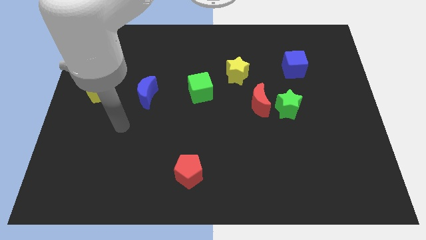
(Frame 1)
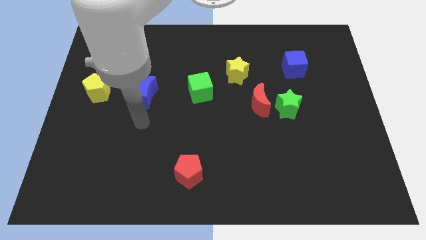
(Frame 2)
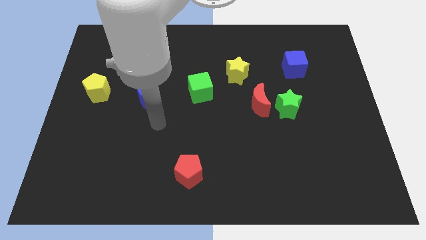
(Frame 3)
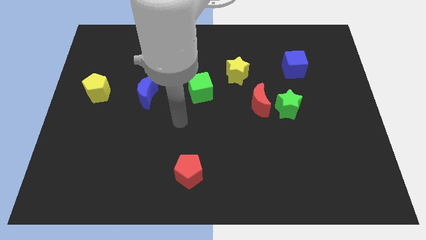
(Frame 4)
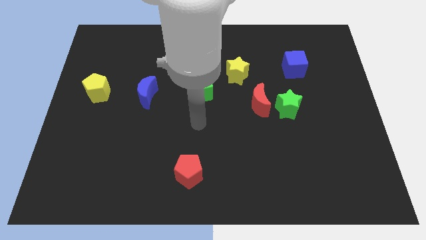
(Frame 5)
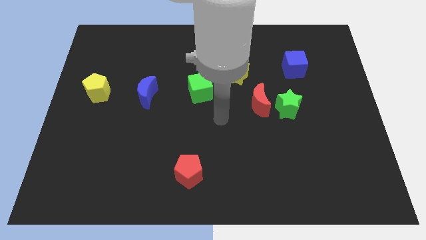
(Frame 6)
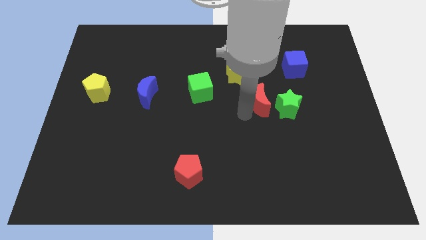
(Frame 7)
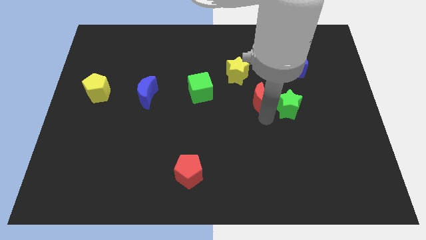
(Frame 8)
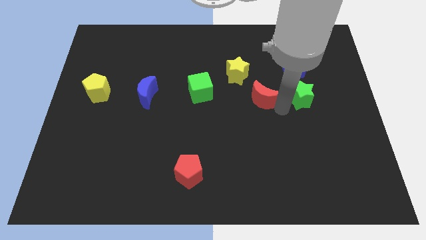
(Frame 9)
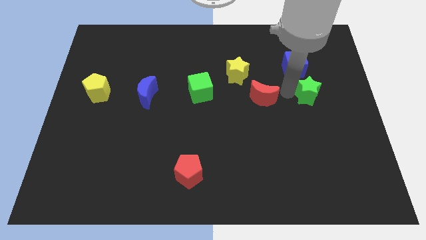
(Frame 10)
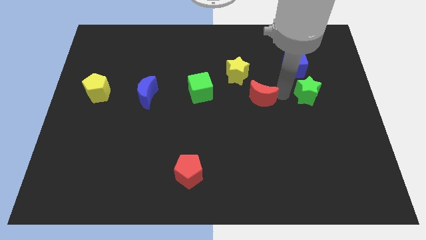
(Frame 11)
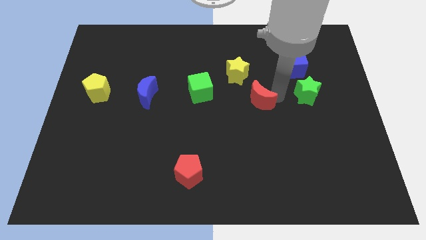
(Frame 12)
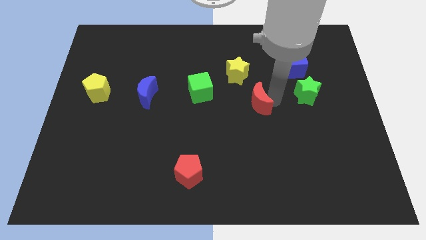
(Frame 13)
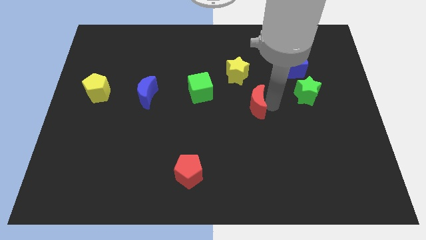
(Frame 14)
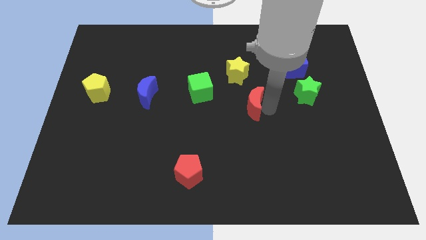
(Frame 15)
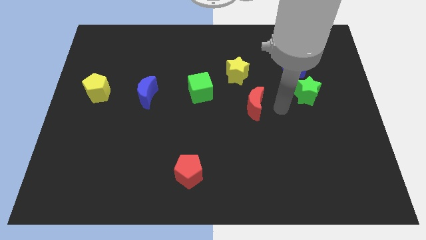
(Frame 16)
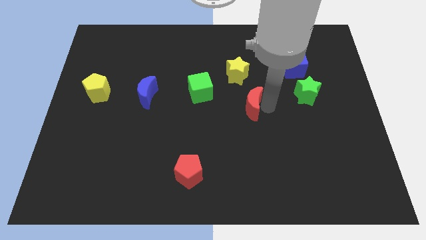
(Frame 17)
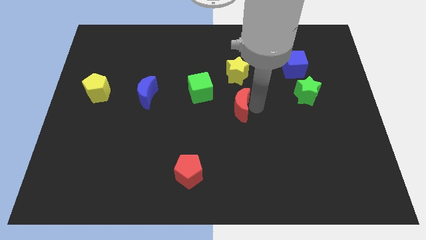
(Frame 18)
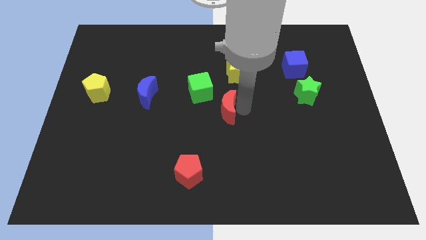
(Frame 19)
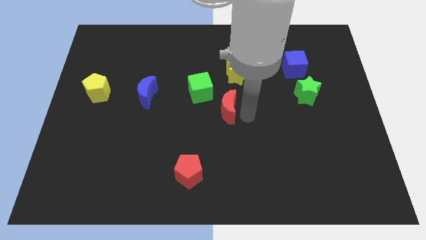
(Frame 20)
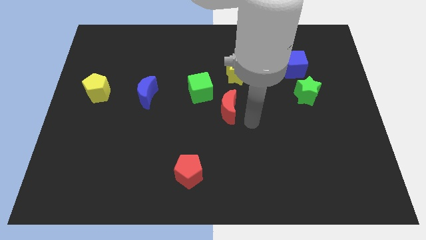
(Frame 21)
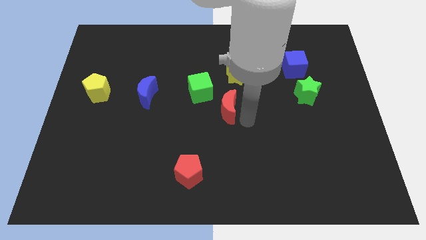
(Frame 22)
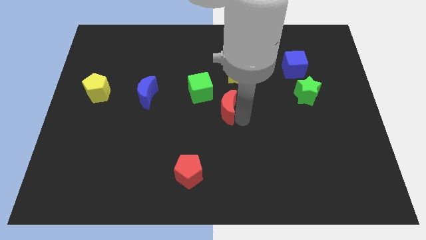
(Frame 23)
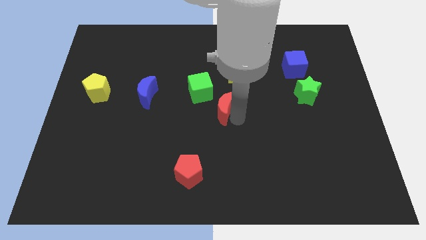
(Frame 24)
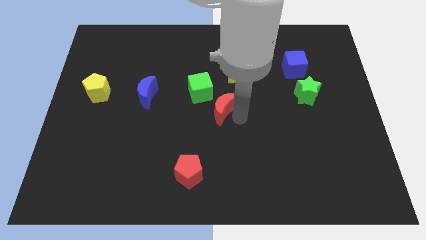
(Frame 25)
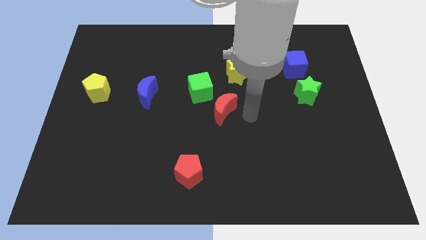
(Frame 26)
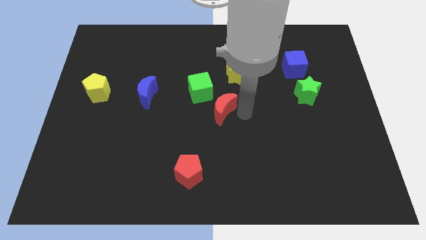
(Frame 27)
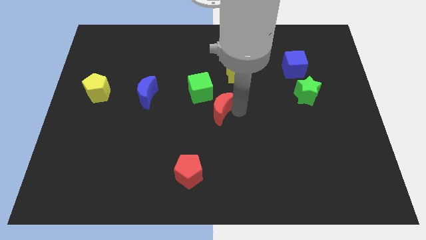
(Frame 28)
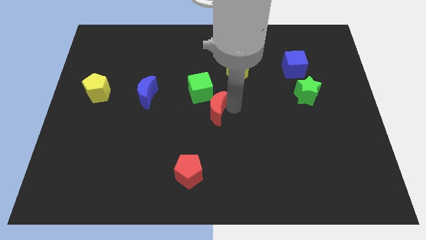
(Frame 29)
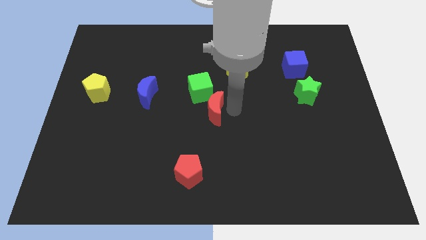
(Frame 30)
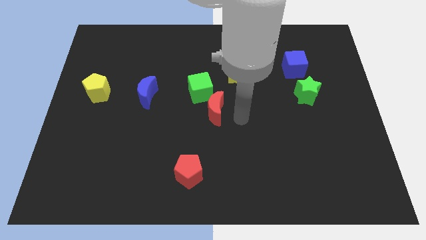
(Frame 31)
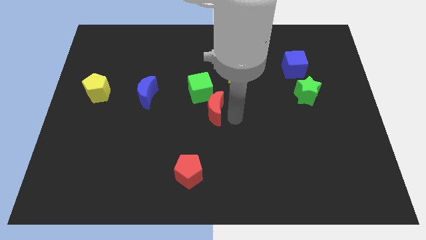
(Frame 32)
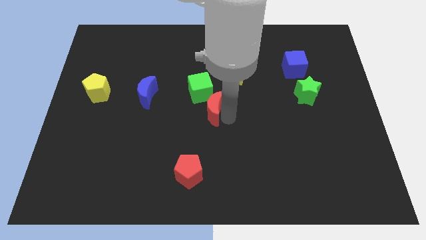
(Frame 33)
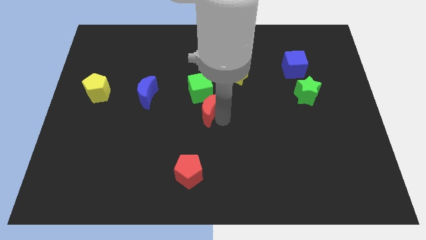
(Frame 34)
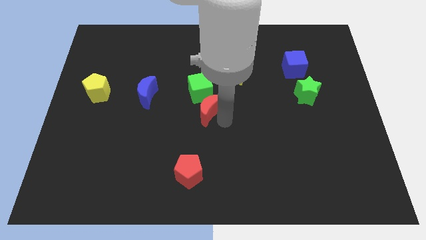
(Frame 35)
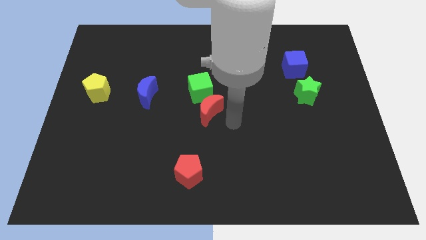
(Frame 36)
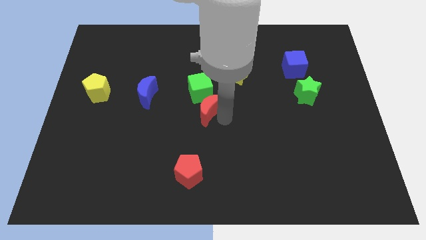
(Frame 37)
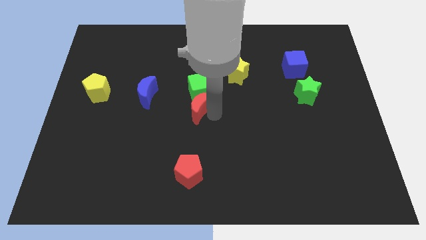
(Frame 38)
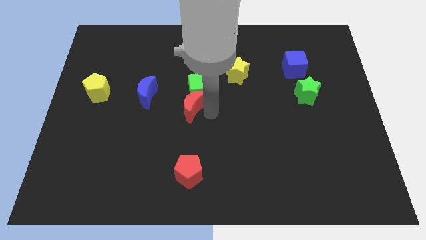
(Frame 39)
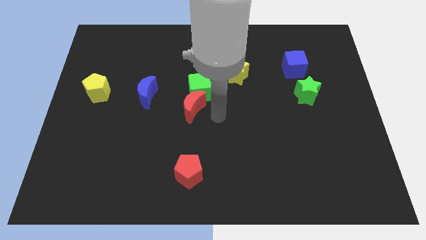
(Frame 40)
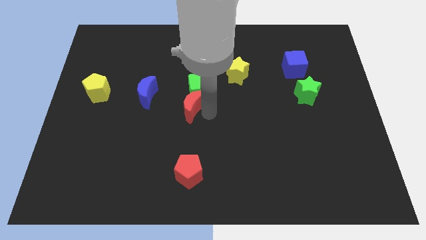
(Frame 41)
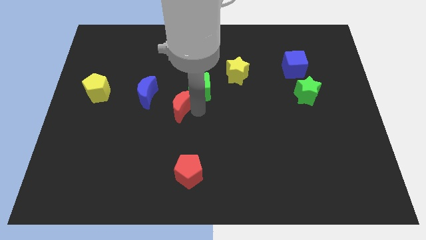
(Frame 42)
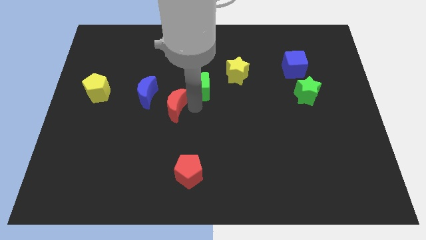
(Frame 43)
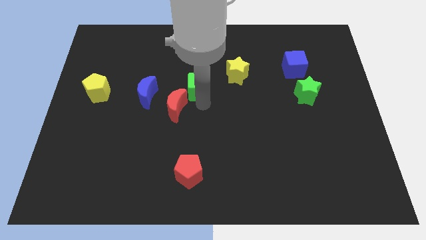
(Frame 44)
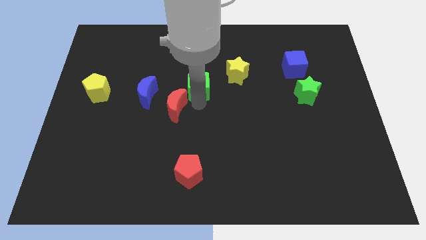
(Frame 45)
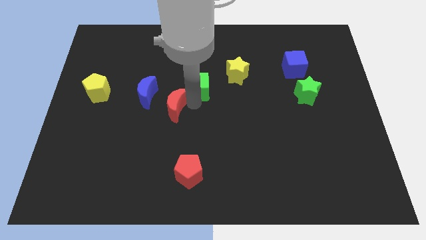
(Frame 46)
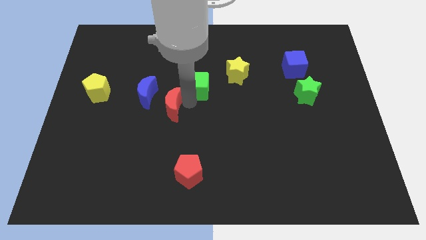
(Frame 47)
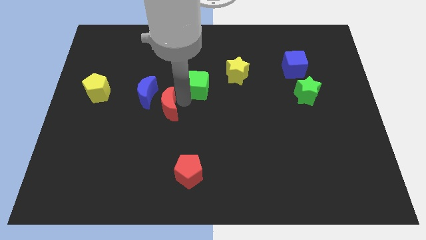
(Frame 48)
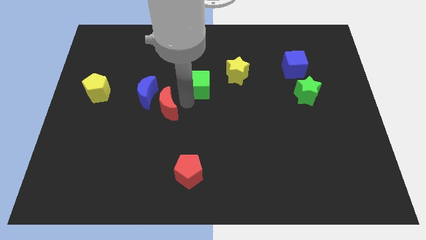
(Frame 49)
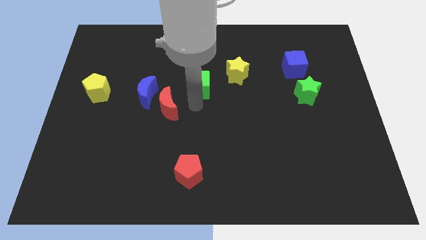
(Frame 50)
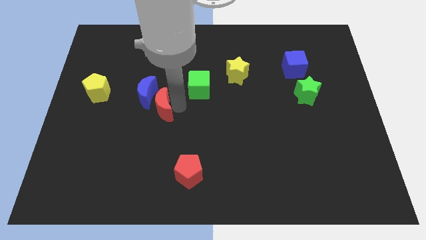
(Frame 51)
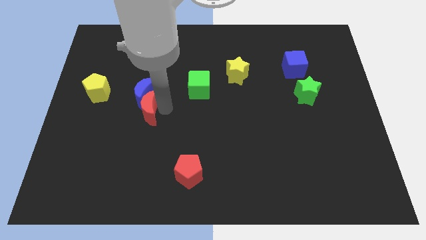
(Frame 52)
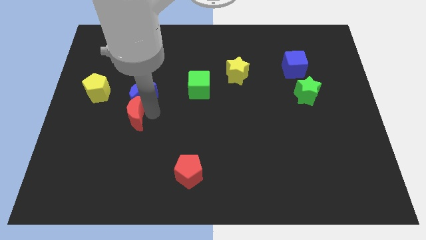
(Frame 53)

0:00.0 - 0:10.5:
push the red moon to the bottom right of the yellow pentagon

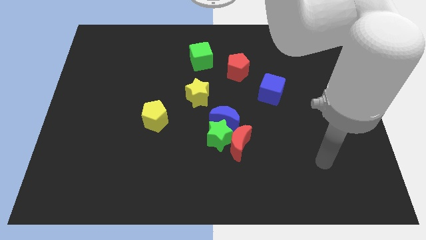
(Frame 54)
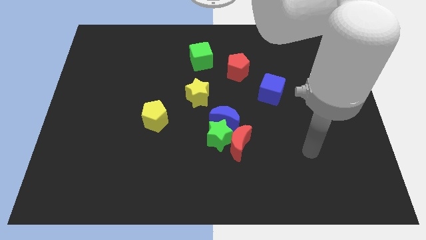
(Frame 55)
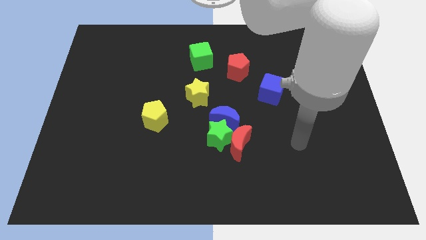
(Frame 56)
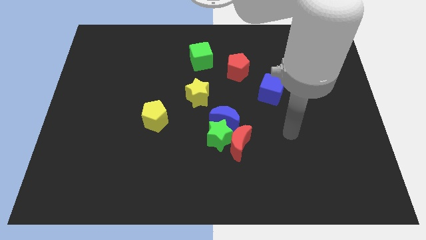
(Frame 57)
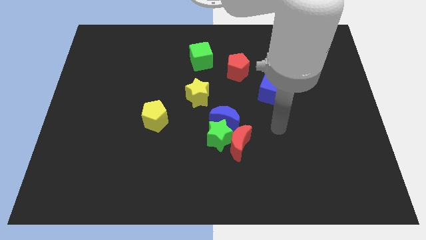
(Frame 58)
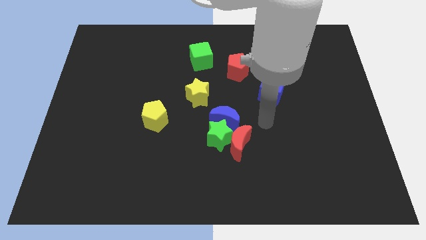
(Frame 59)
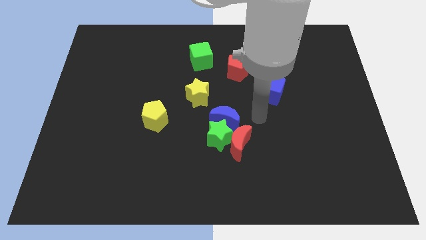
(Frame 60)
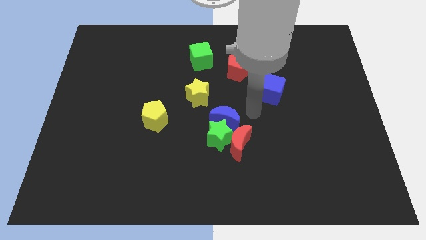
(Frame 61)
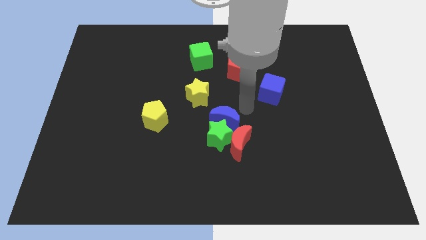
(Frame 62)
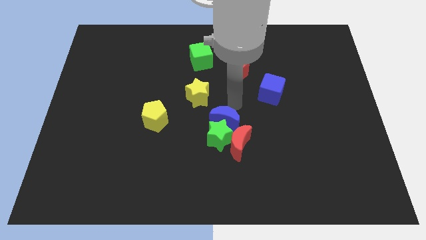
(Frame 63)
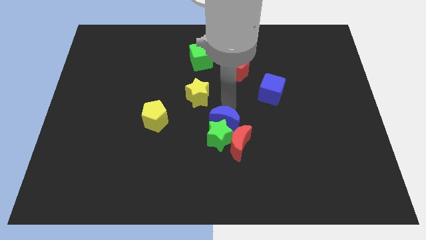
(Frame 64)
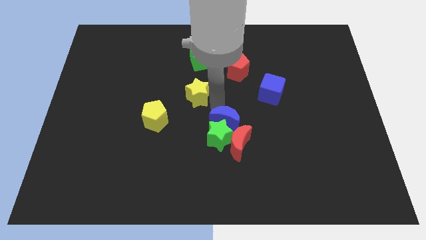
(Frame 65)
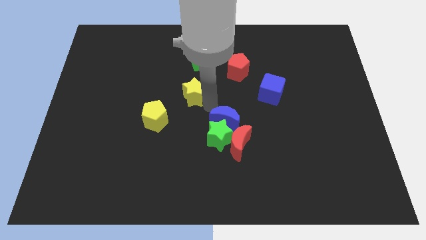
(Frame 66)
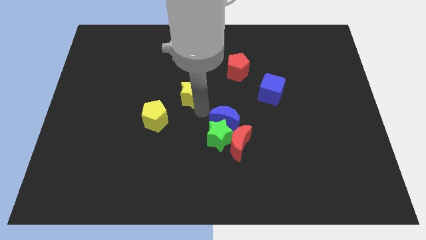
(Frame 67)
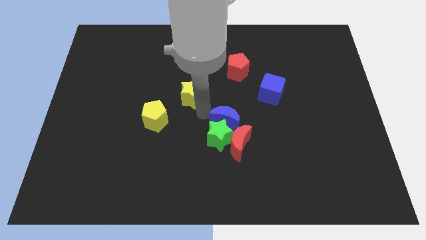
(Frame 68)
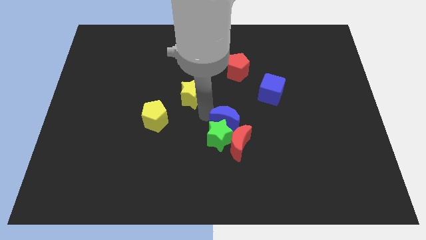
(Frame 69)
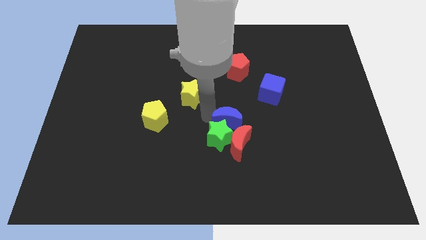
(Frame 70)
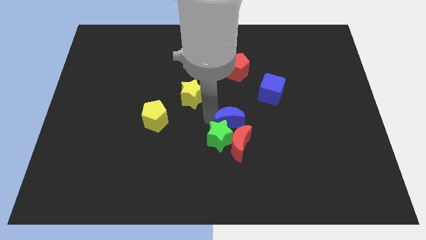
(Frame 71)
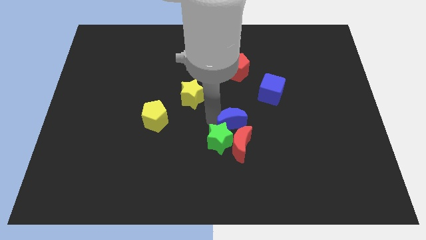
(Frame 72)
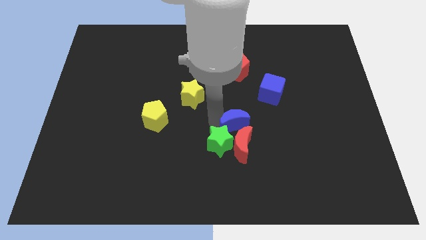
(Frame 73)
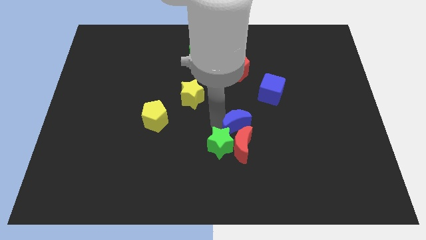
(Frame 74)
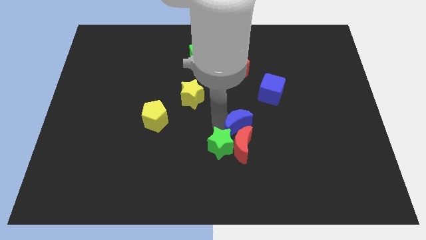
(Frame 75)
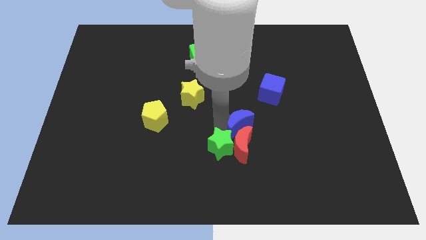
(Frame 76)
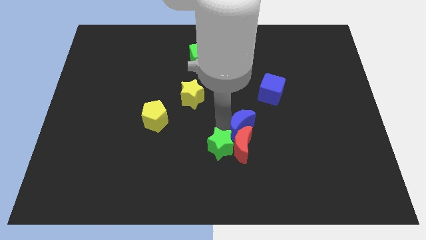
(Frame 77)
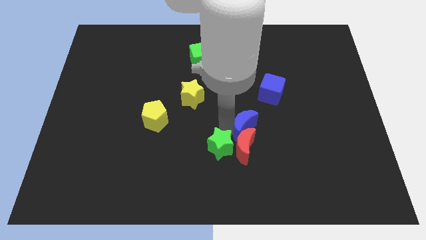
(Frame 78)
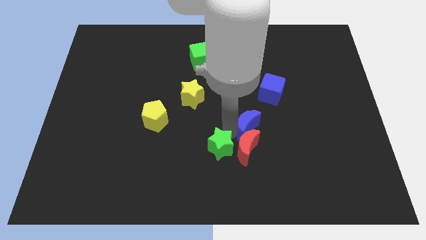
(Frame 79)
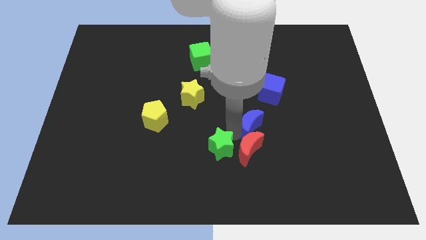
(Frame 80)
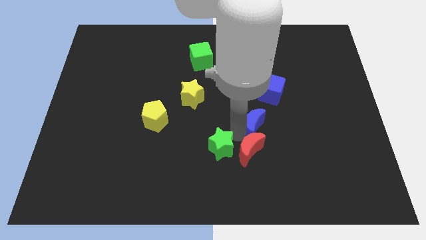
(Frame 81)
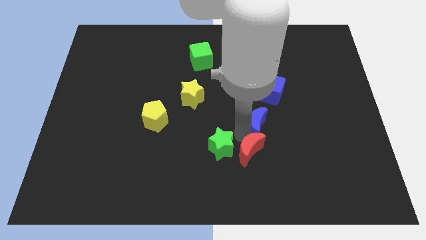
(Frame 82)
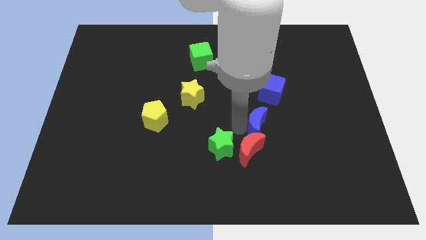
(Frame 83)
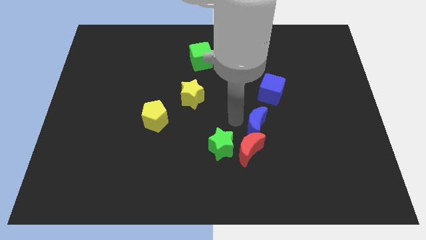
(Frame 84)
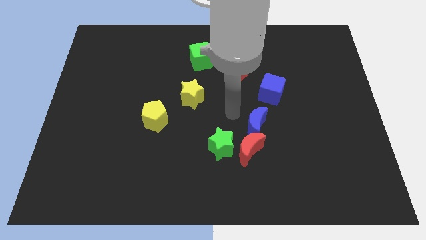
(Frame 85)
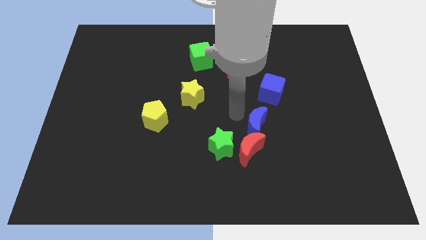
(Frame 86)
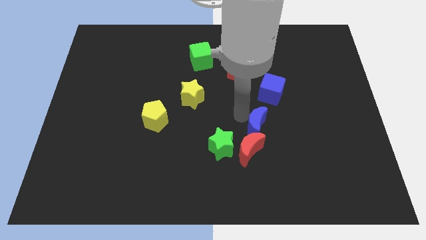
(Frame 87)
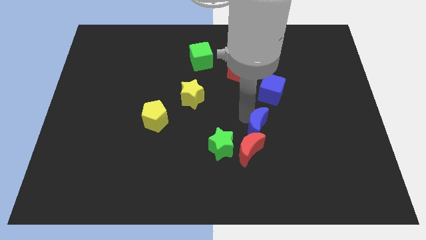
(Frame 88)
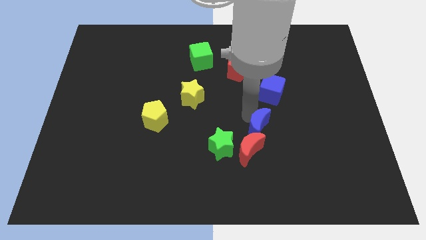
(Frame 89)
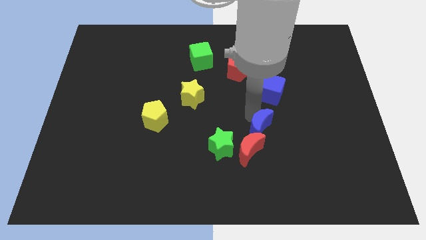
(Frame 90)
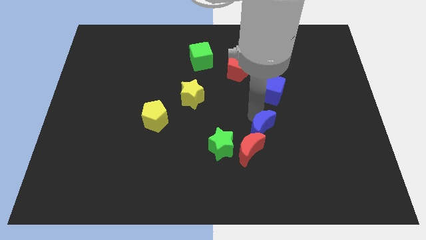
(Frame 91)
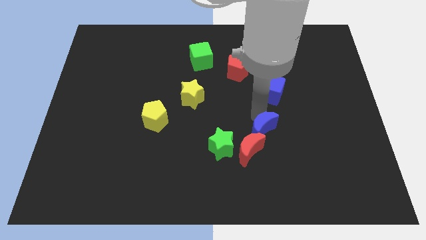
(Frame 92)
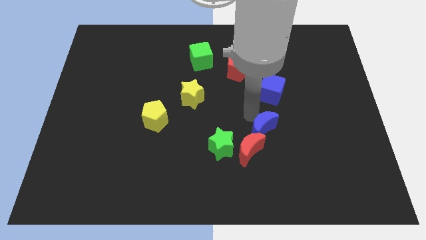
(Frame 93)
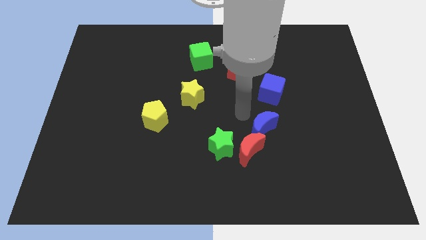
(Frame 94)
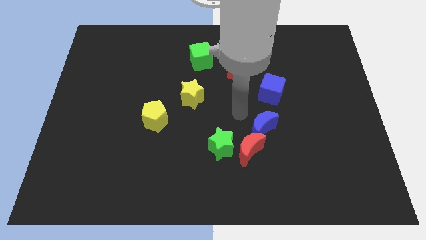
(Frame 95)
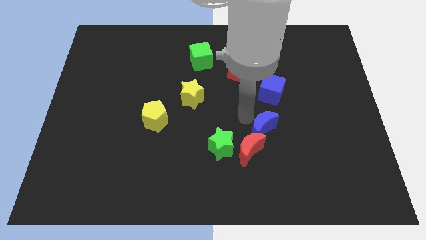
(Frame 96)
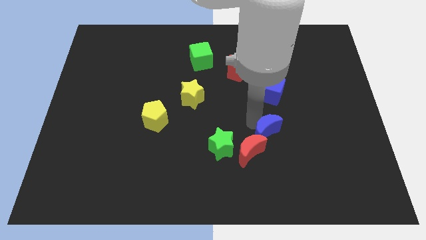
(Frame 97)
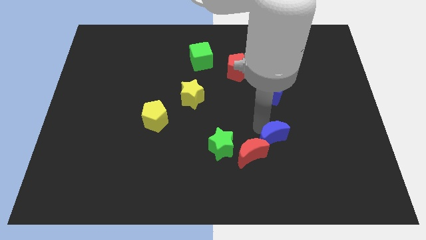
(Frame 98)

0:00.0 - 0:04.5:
move the blue moon to the right side of the red moon
